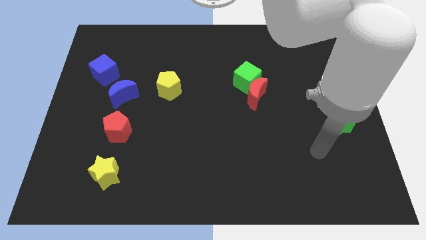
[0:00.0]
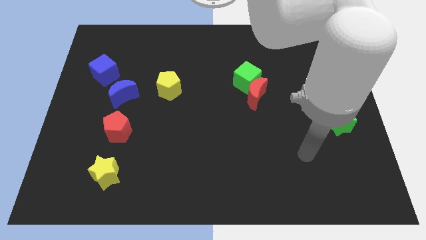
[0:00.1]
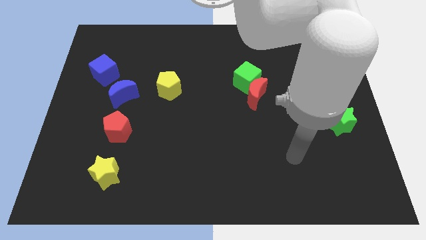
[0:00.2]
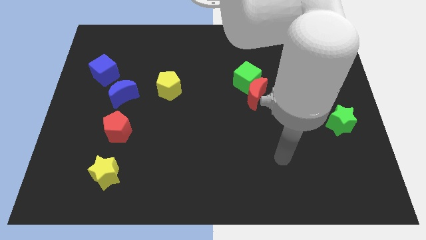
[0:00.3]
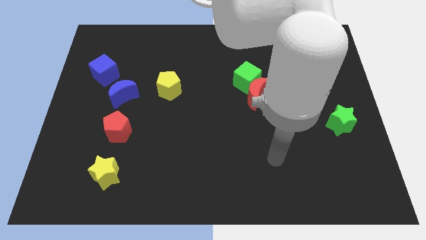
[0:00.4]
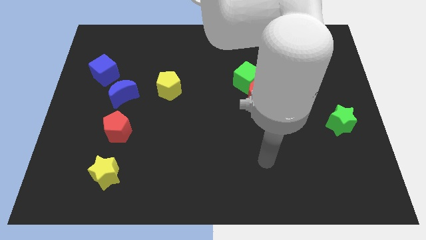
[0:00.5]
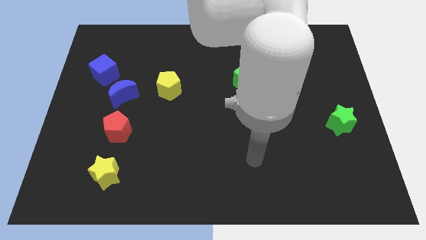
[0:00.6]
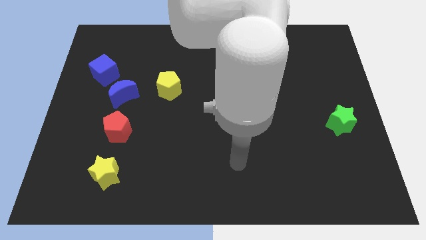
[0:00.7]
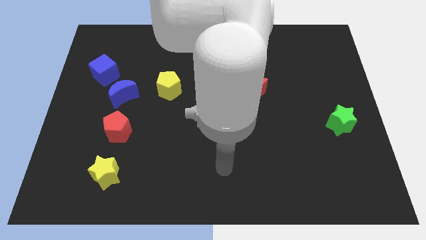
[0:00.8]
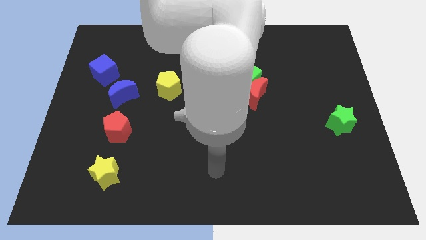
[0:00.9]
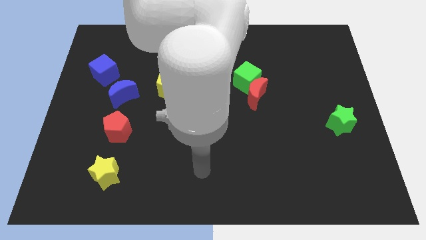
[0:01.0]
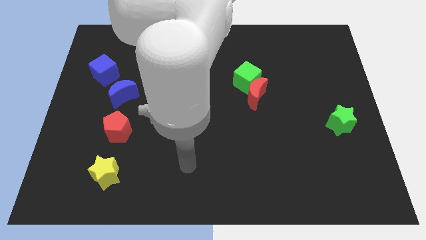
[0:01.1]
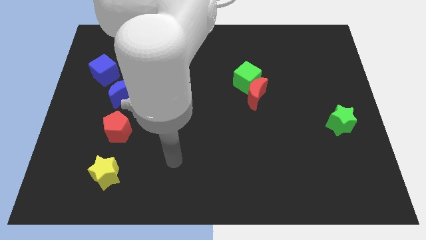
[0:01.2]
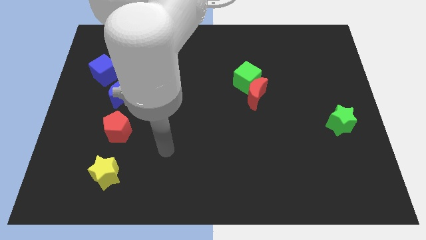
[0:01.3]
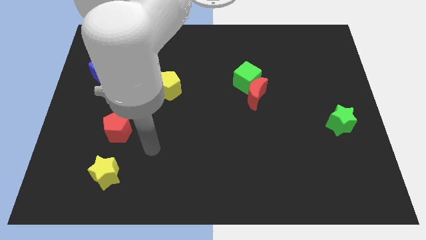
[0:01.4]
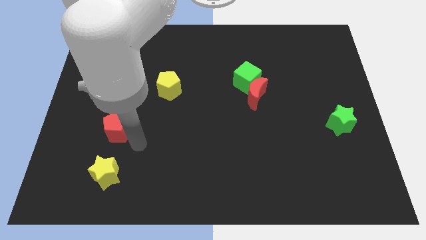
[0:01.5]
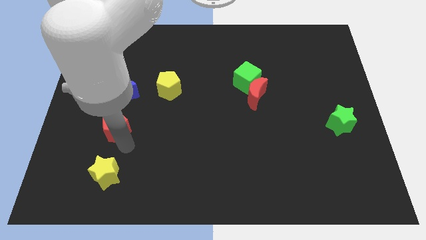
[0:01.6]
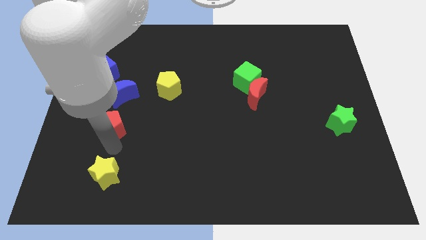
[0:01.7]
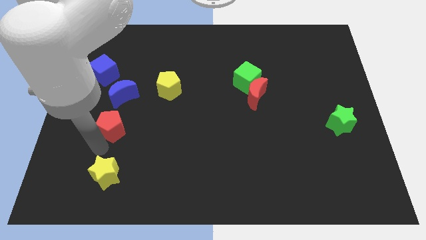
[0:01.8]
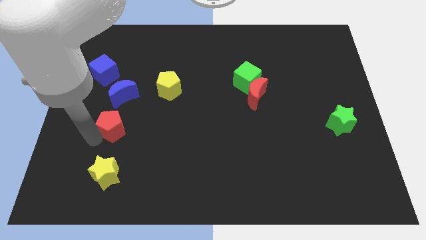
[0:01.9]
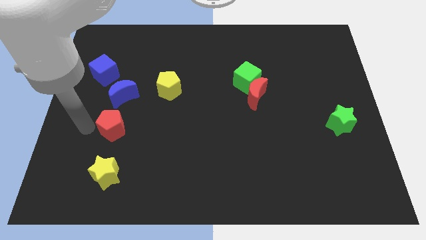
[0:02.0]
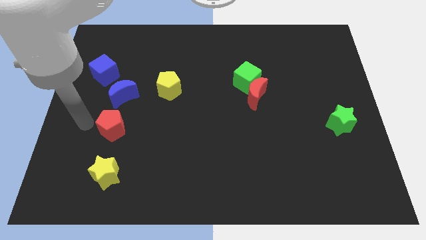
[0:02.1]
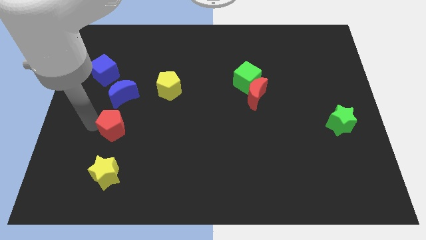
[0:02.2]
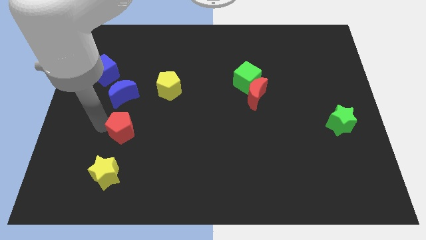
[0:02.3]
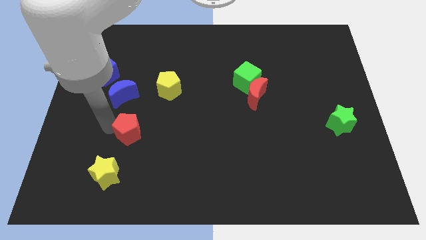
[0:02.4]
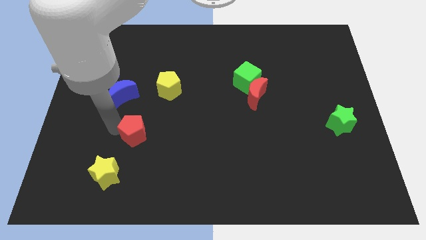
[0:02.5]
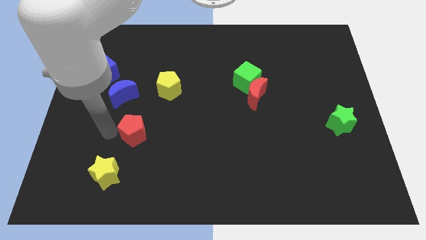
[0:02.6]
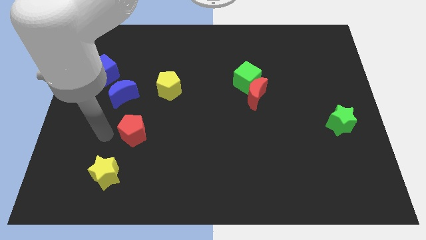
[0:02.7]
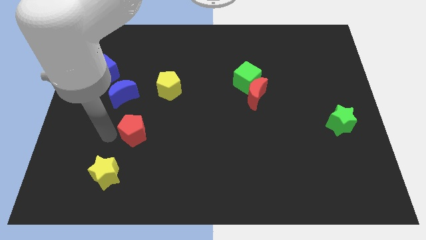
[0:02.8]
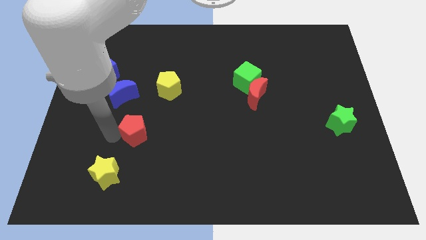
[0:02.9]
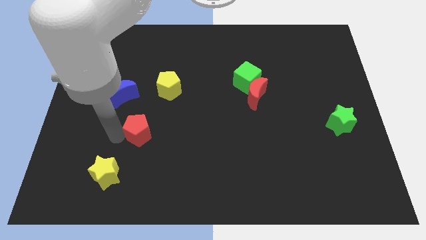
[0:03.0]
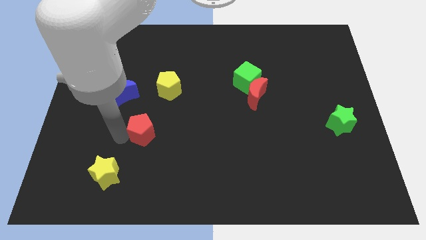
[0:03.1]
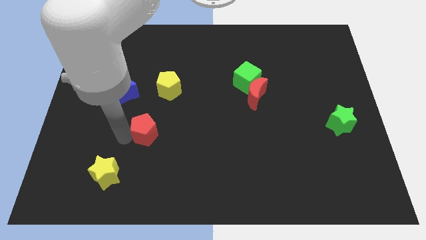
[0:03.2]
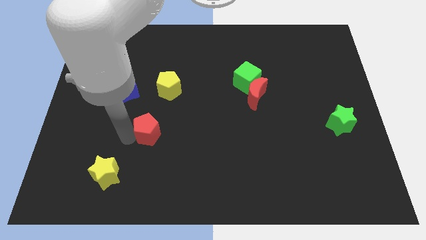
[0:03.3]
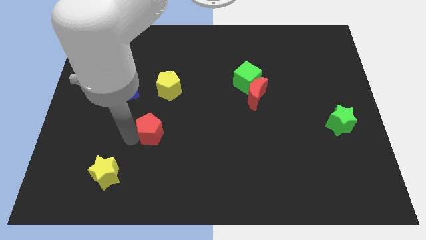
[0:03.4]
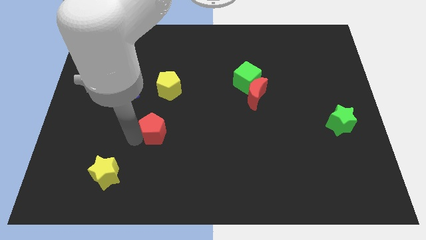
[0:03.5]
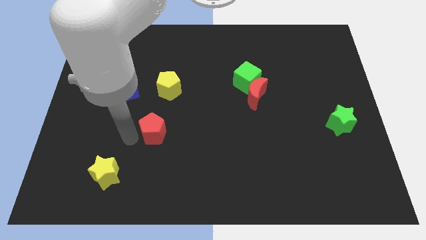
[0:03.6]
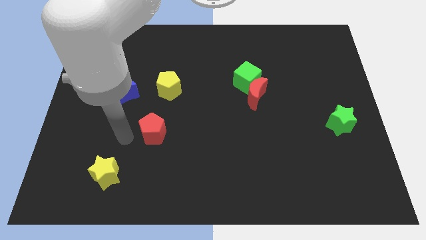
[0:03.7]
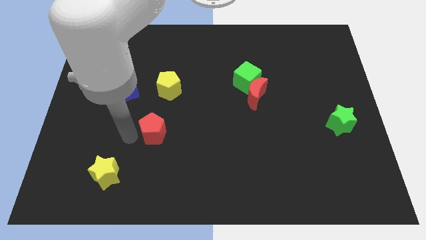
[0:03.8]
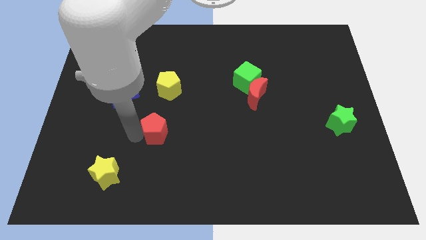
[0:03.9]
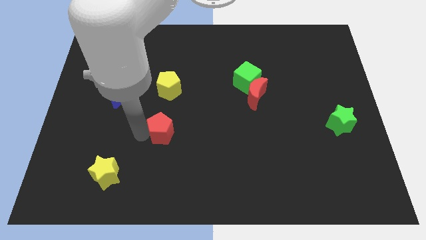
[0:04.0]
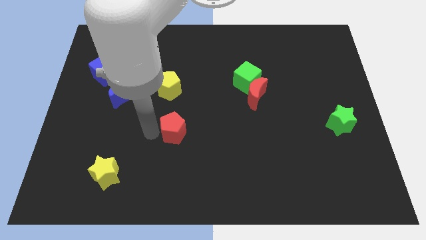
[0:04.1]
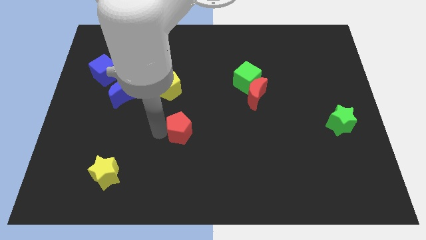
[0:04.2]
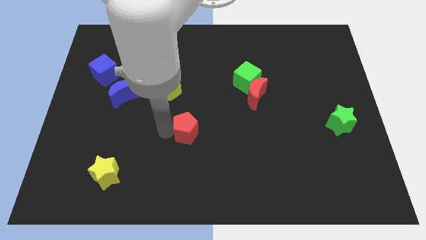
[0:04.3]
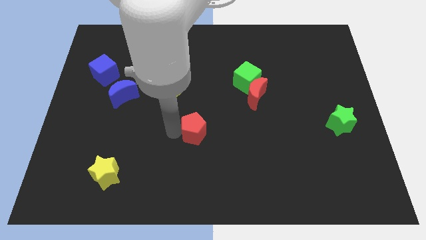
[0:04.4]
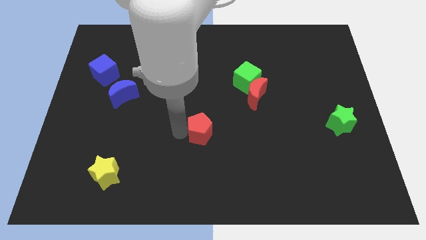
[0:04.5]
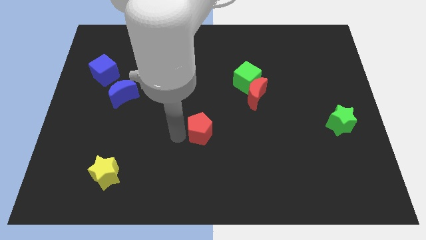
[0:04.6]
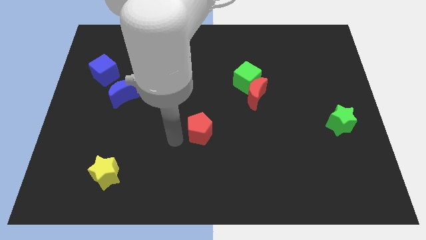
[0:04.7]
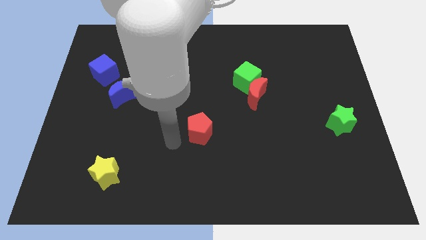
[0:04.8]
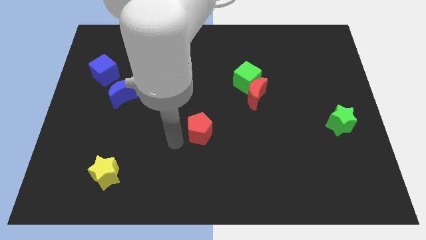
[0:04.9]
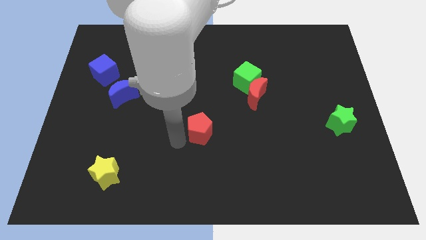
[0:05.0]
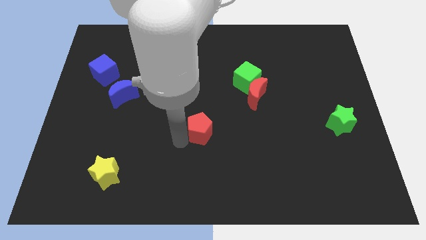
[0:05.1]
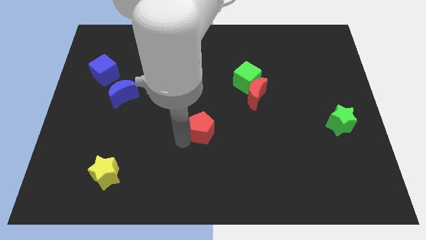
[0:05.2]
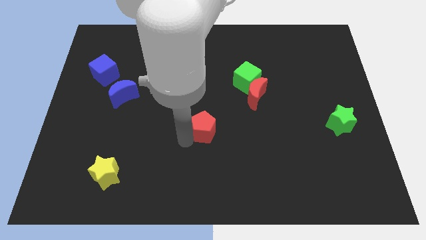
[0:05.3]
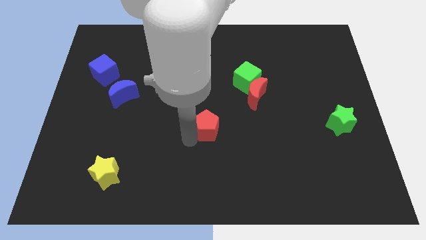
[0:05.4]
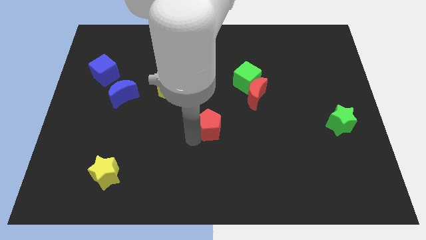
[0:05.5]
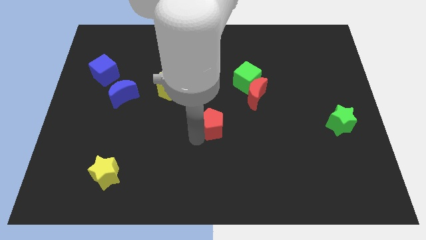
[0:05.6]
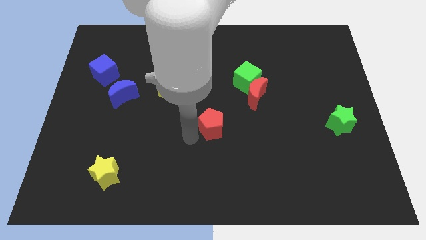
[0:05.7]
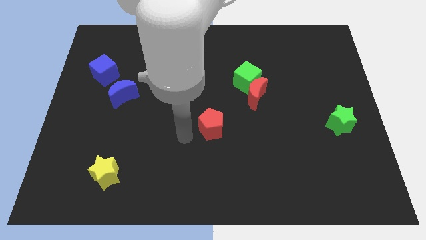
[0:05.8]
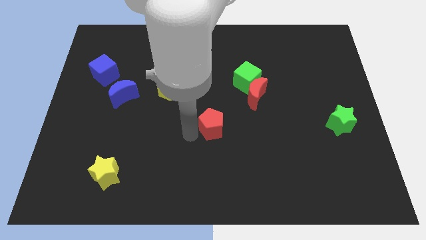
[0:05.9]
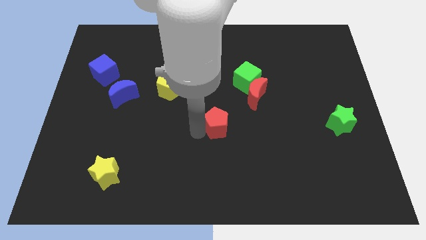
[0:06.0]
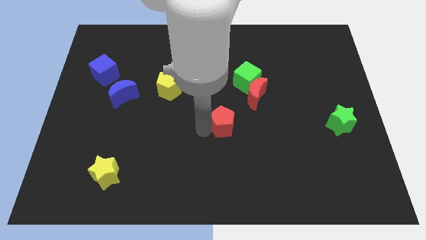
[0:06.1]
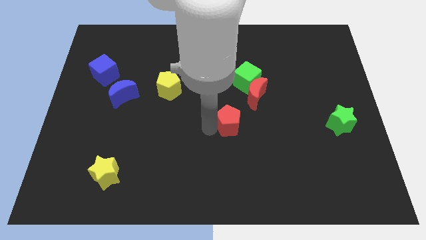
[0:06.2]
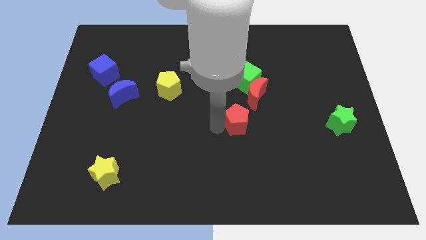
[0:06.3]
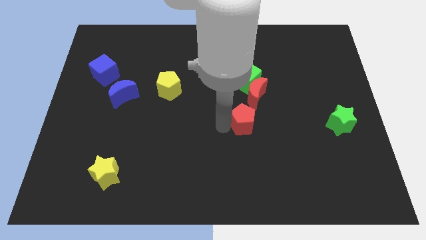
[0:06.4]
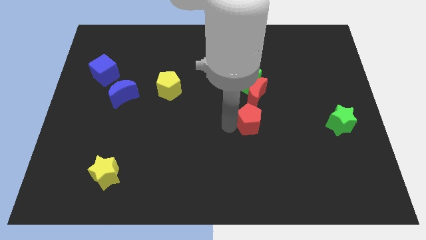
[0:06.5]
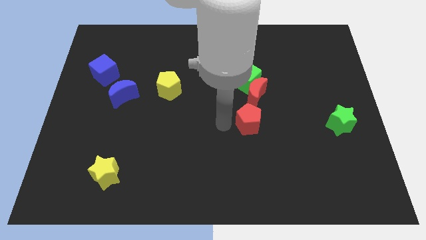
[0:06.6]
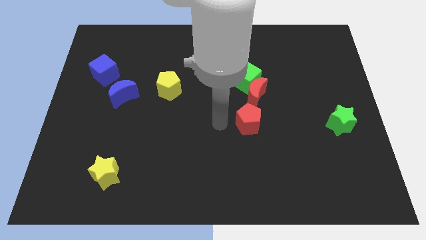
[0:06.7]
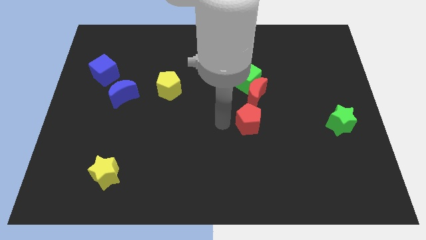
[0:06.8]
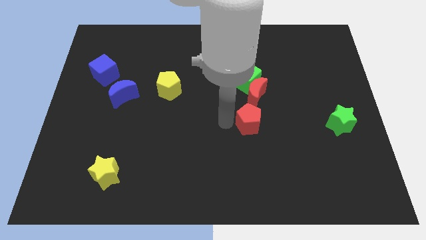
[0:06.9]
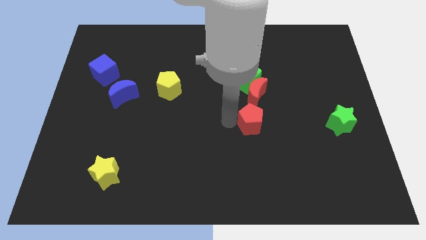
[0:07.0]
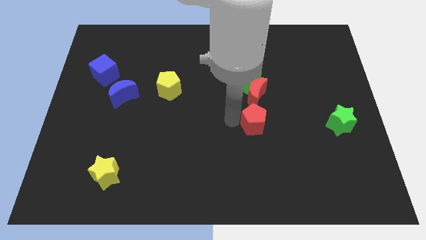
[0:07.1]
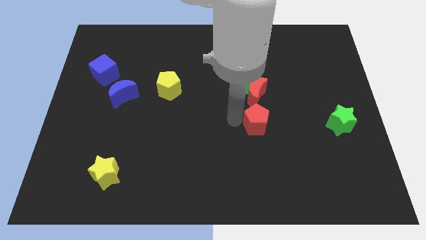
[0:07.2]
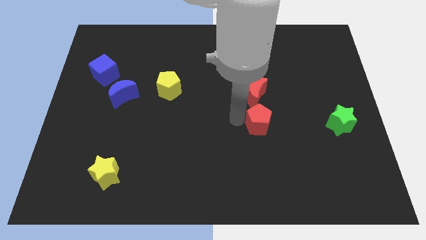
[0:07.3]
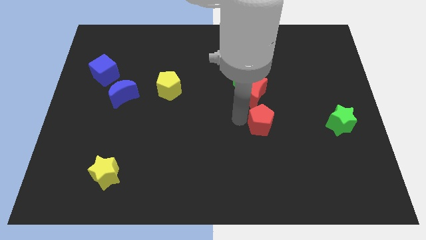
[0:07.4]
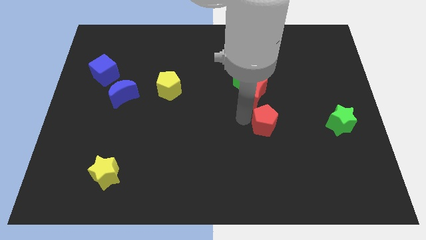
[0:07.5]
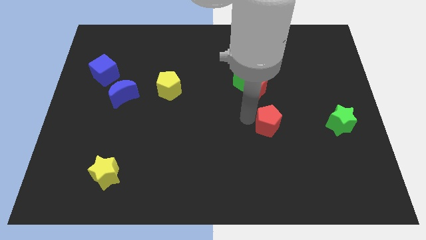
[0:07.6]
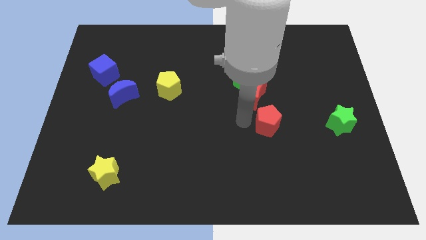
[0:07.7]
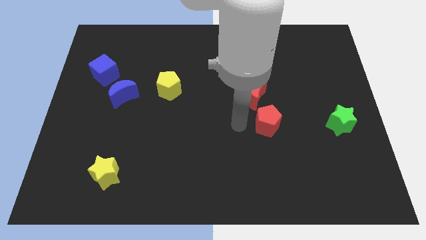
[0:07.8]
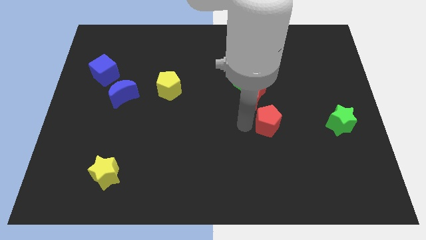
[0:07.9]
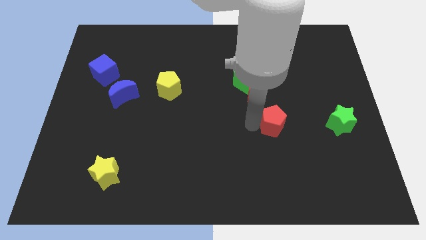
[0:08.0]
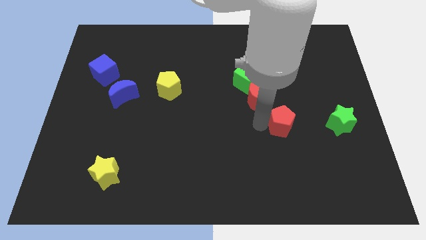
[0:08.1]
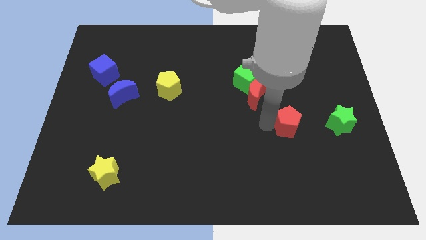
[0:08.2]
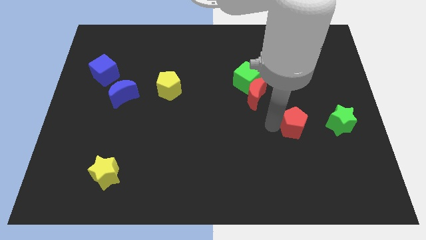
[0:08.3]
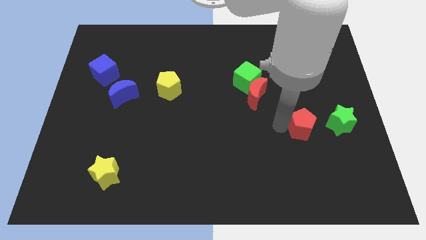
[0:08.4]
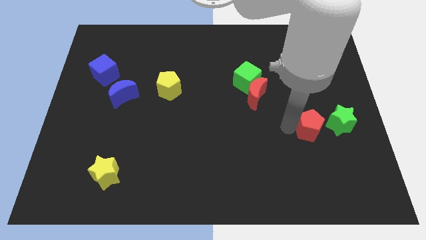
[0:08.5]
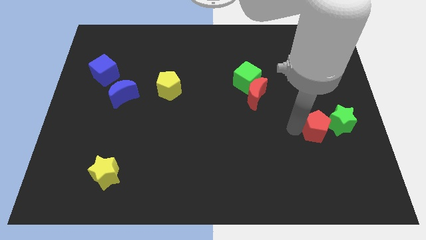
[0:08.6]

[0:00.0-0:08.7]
slide the red pentagon to the green star
